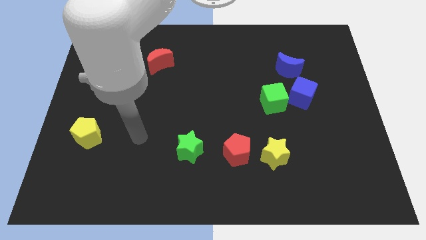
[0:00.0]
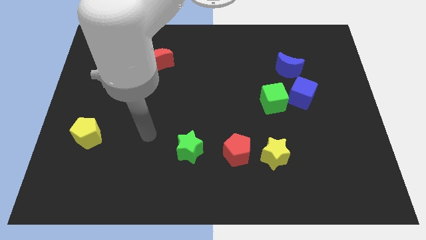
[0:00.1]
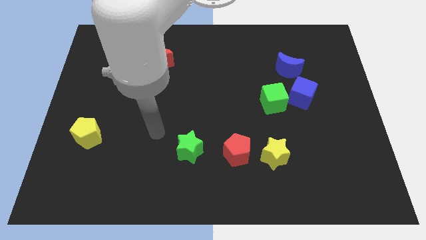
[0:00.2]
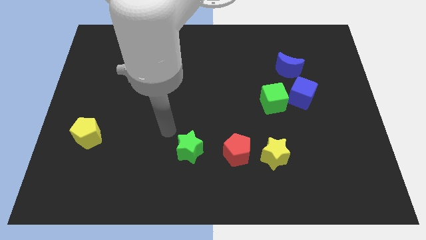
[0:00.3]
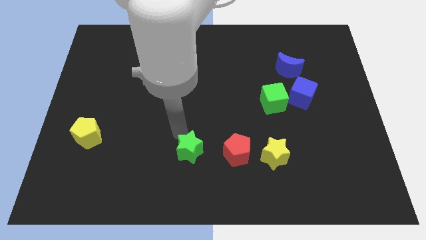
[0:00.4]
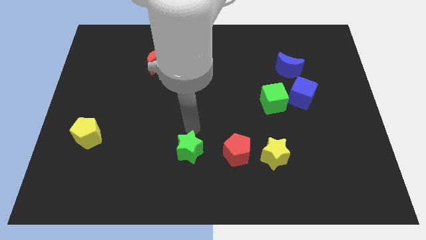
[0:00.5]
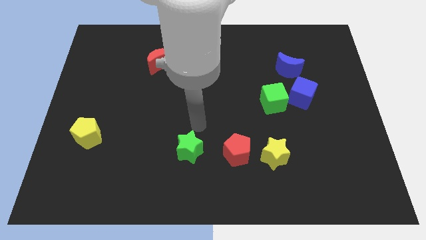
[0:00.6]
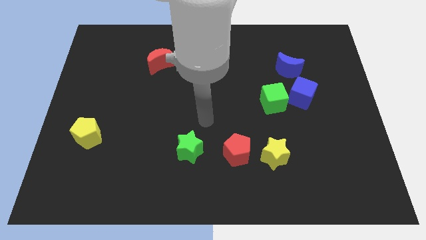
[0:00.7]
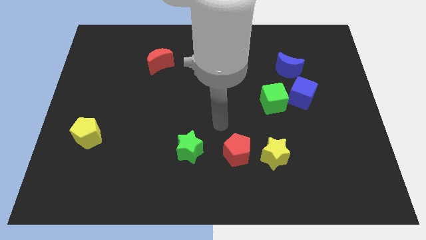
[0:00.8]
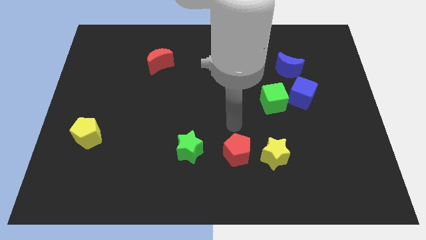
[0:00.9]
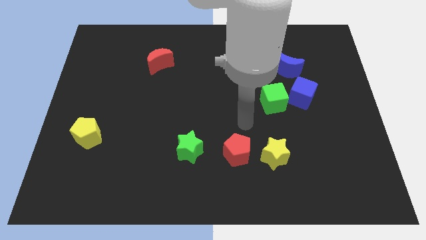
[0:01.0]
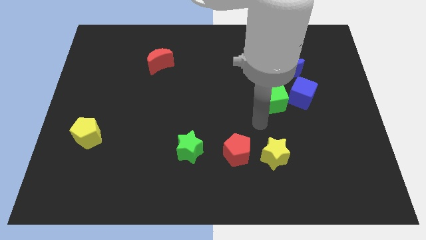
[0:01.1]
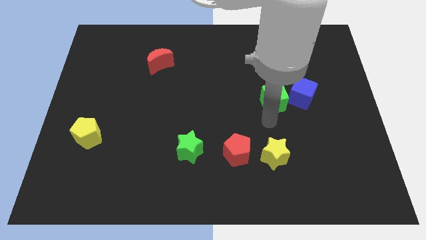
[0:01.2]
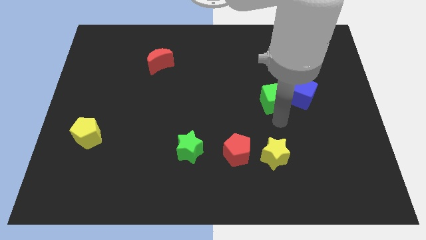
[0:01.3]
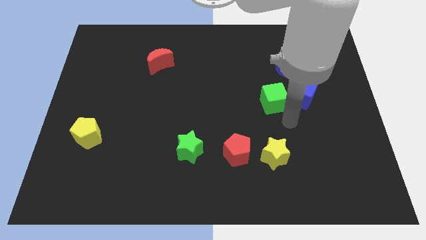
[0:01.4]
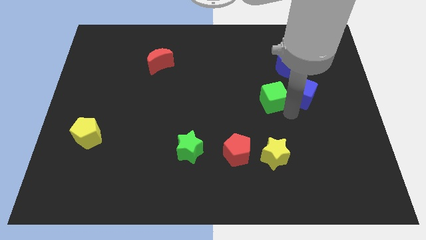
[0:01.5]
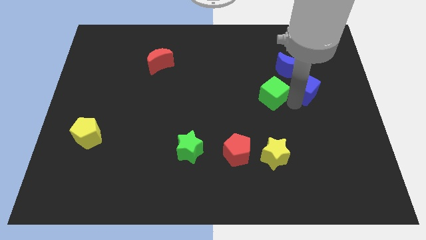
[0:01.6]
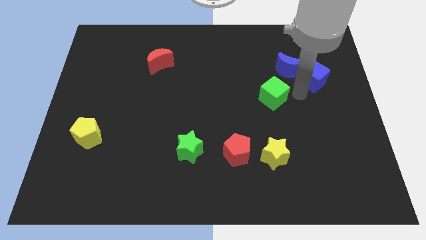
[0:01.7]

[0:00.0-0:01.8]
separate the green cube from the blue cube

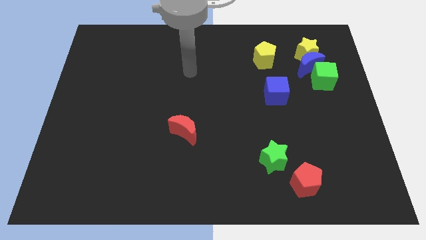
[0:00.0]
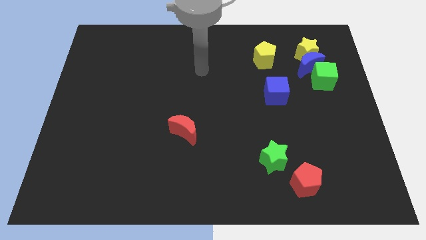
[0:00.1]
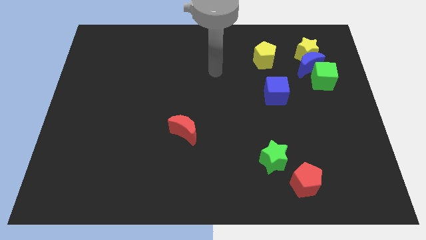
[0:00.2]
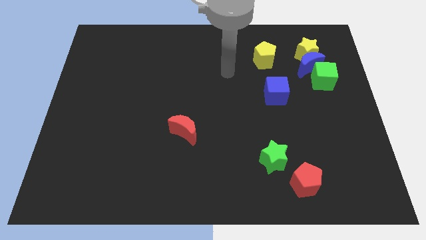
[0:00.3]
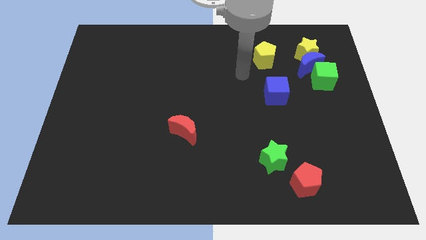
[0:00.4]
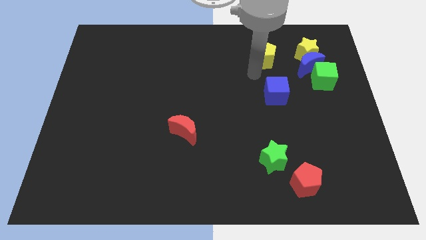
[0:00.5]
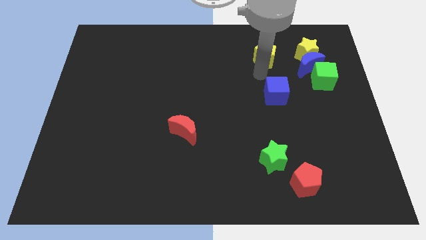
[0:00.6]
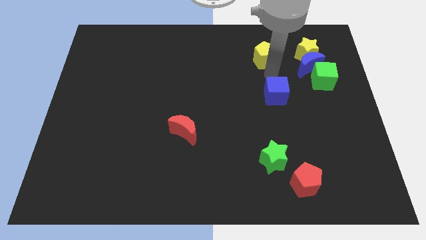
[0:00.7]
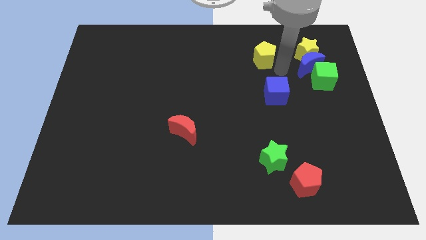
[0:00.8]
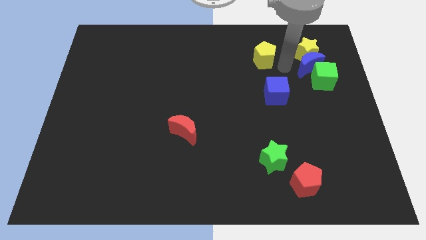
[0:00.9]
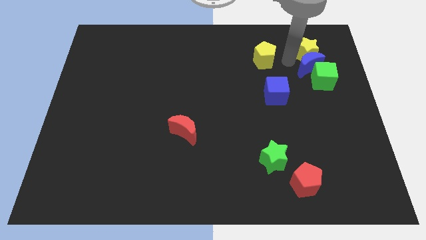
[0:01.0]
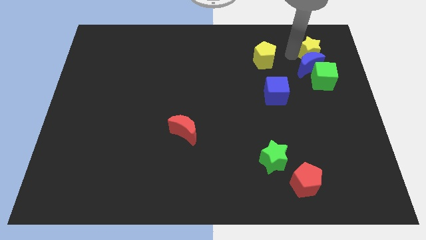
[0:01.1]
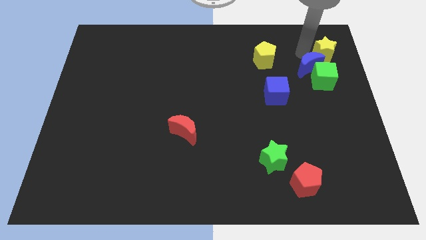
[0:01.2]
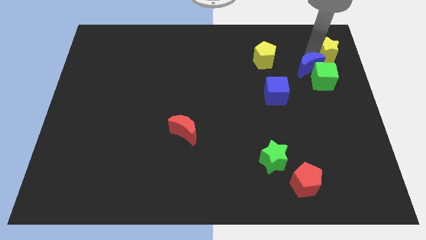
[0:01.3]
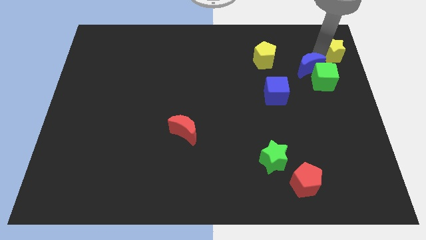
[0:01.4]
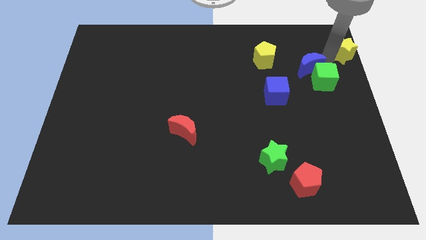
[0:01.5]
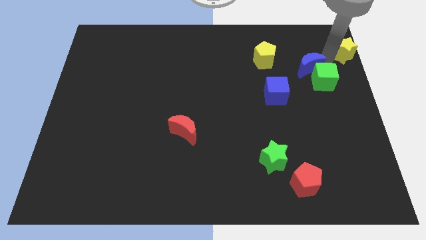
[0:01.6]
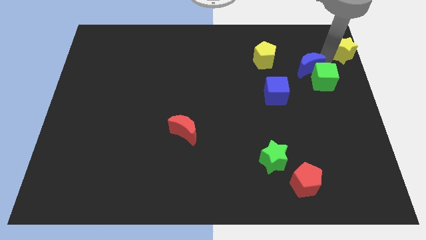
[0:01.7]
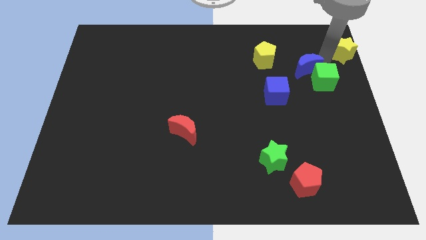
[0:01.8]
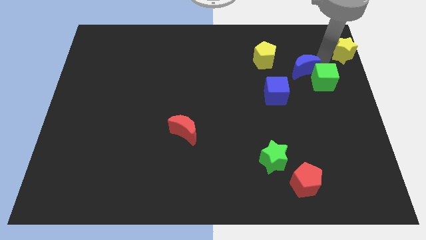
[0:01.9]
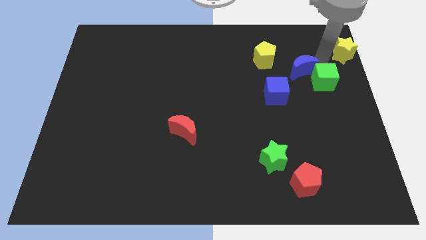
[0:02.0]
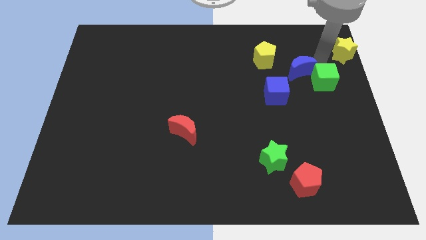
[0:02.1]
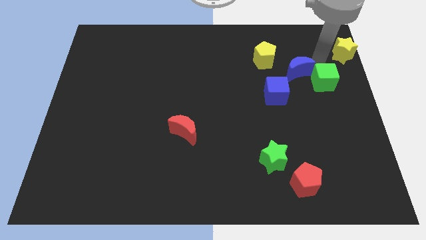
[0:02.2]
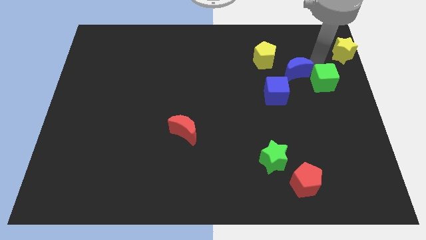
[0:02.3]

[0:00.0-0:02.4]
separate the blue moon from the yellow star and green cube

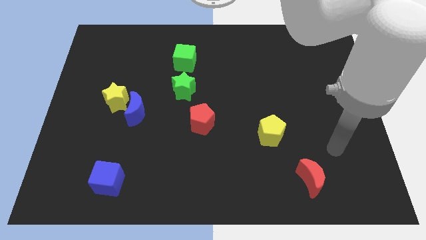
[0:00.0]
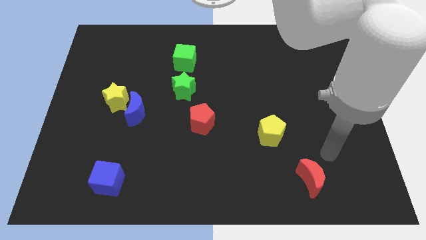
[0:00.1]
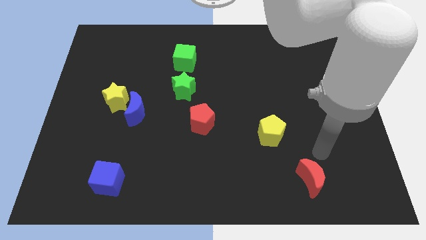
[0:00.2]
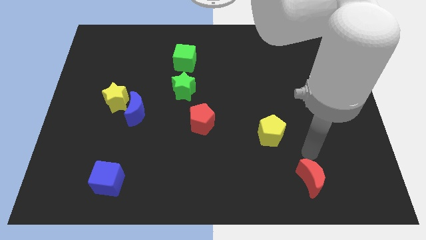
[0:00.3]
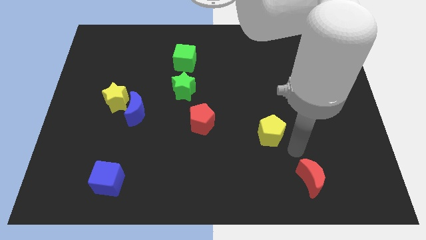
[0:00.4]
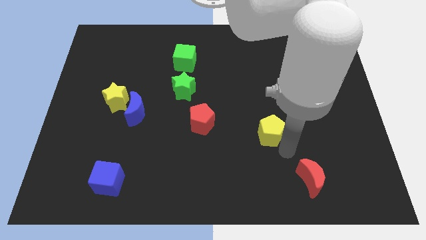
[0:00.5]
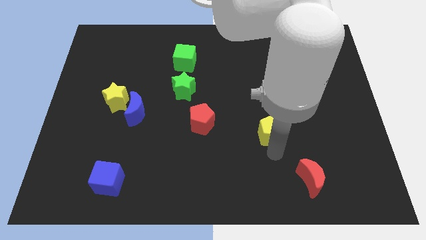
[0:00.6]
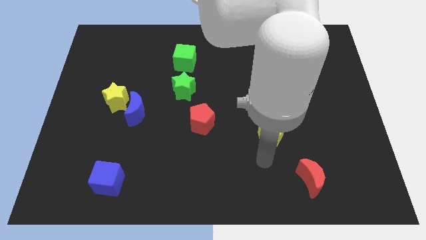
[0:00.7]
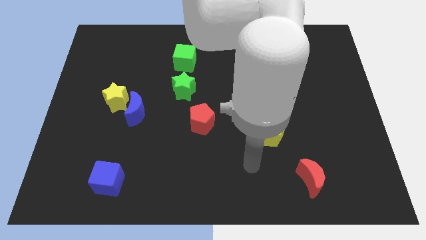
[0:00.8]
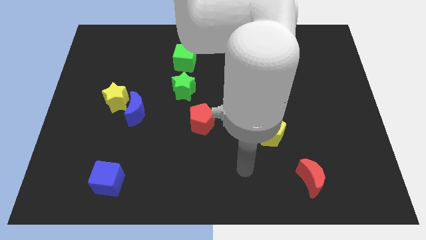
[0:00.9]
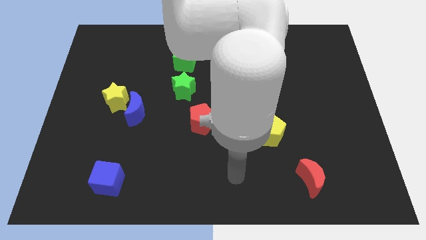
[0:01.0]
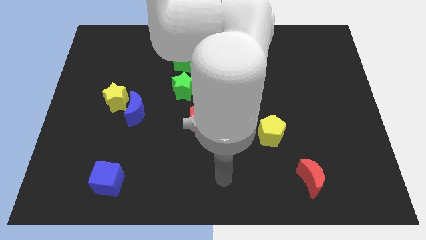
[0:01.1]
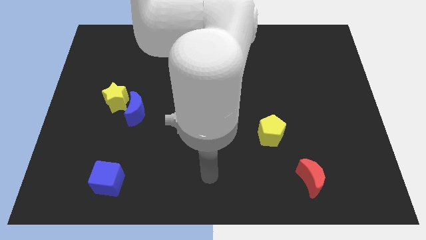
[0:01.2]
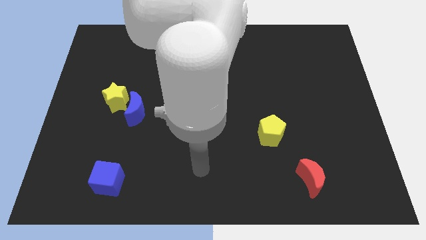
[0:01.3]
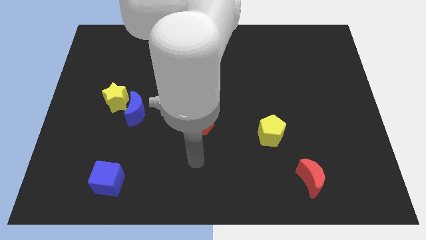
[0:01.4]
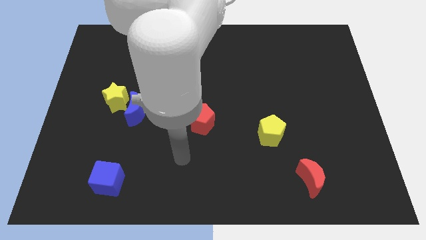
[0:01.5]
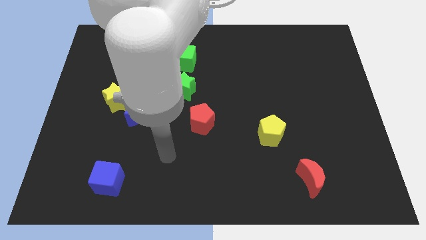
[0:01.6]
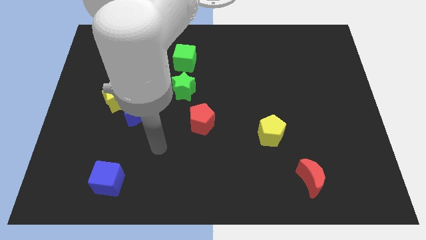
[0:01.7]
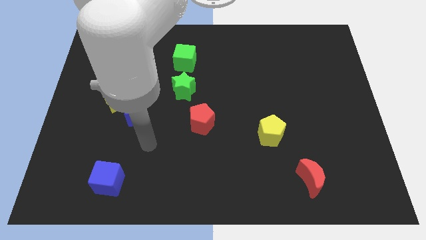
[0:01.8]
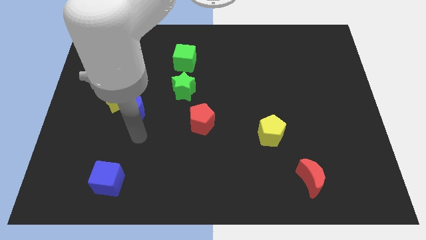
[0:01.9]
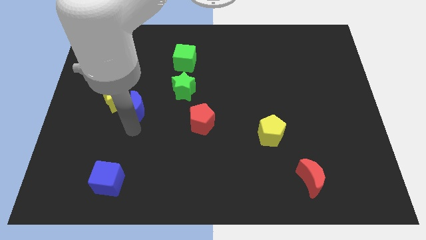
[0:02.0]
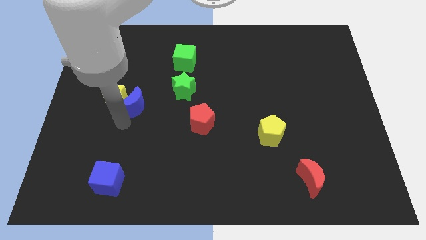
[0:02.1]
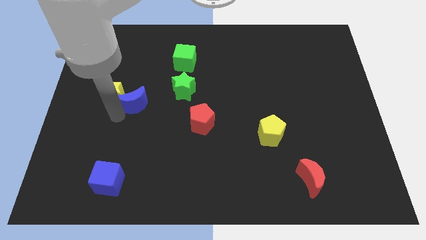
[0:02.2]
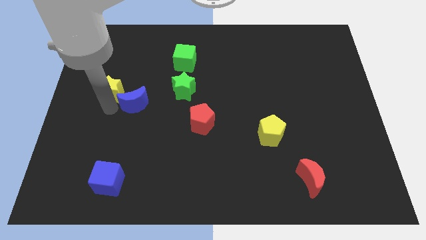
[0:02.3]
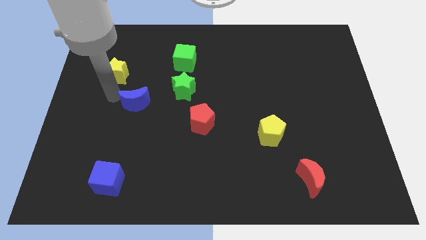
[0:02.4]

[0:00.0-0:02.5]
separate the blue moon from the yellow star

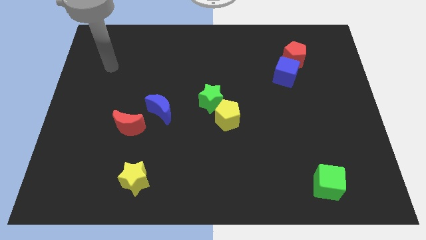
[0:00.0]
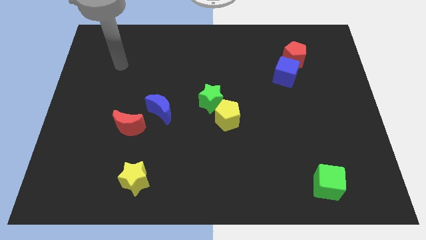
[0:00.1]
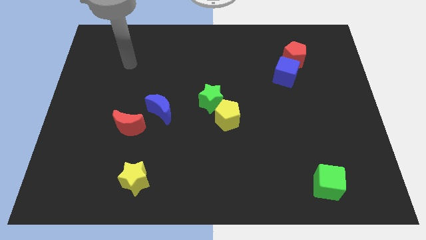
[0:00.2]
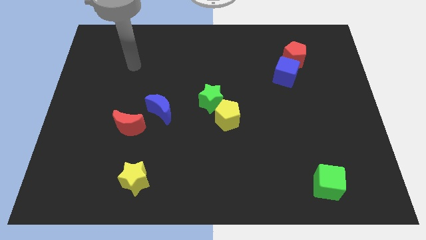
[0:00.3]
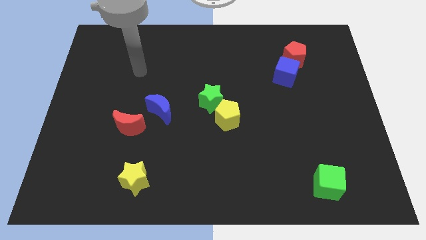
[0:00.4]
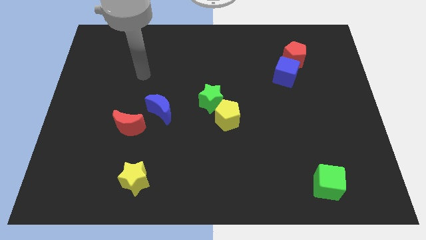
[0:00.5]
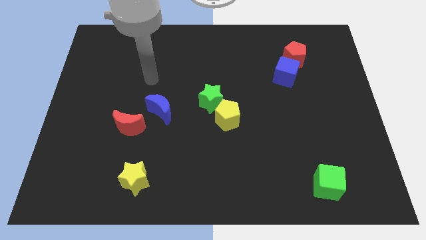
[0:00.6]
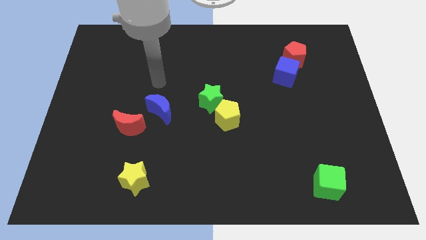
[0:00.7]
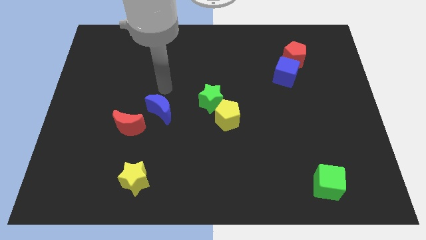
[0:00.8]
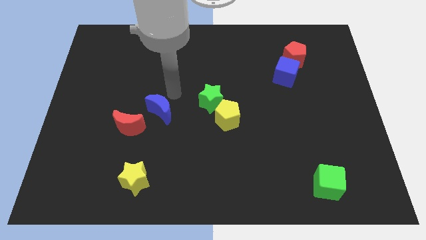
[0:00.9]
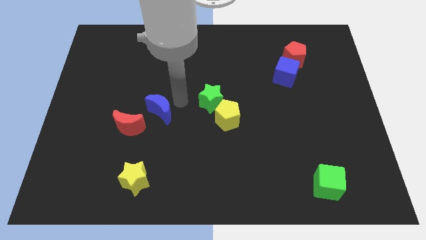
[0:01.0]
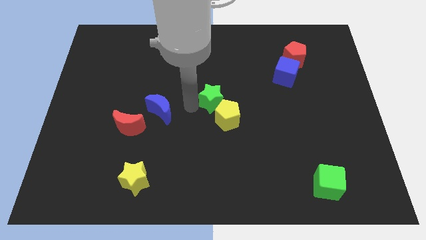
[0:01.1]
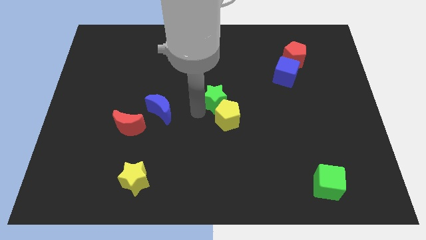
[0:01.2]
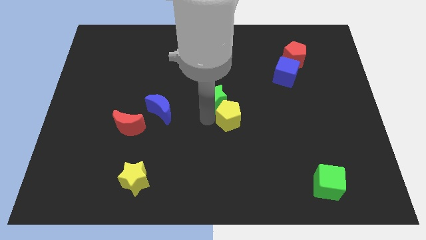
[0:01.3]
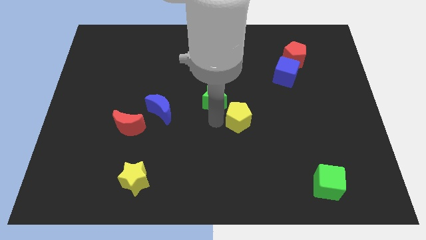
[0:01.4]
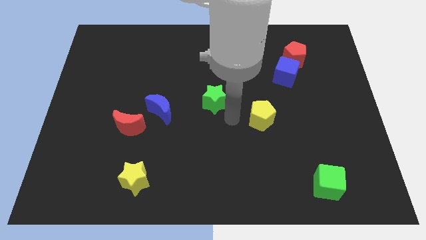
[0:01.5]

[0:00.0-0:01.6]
pull the green star apart from the yellow pentagon

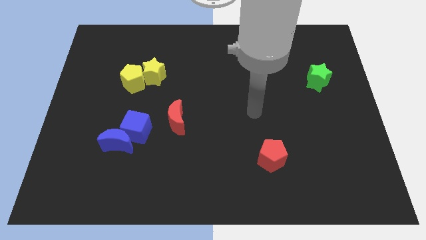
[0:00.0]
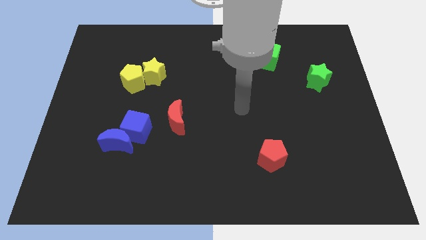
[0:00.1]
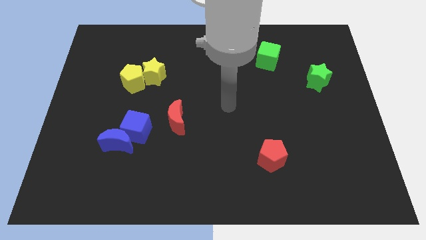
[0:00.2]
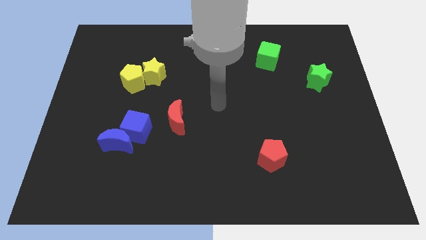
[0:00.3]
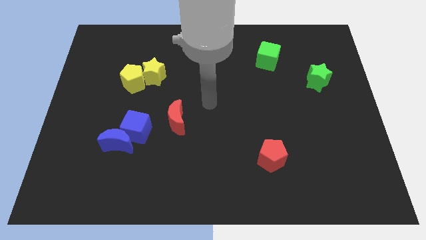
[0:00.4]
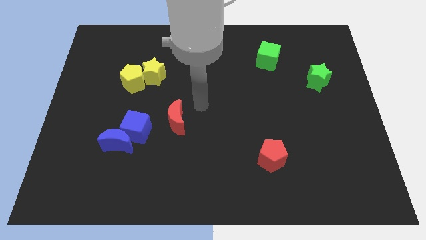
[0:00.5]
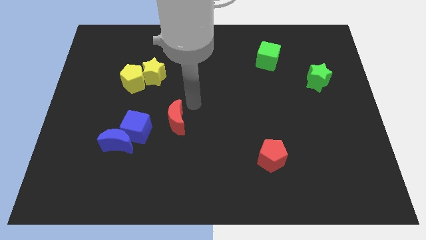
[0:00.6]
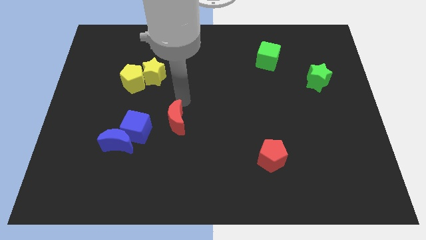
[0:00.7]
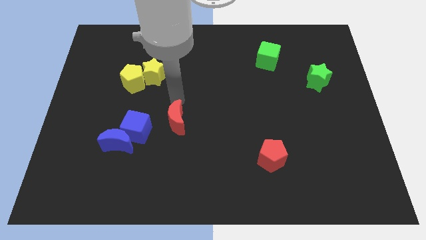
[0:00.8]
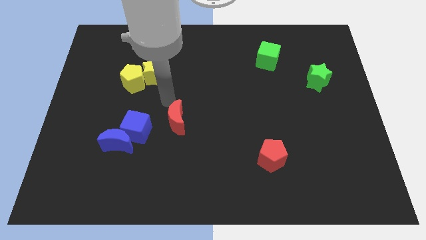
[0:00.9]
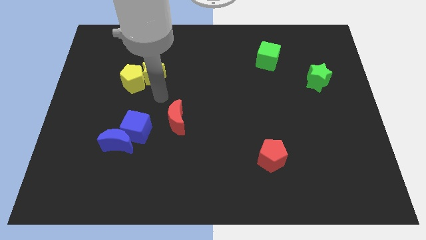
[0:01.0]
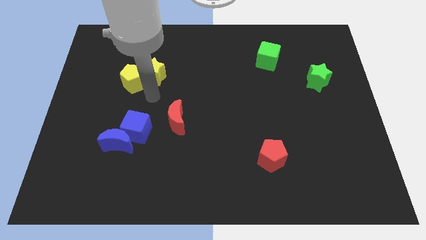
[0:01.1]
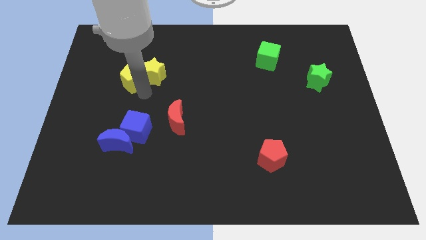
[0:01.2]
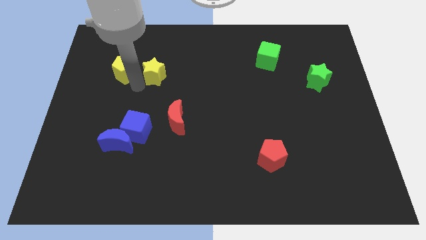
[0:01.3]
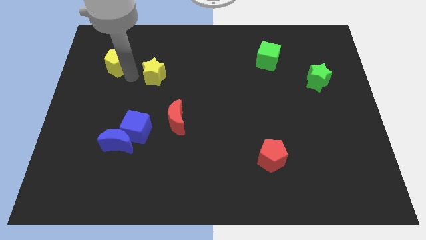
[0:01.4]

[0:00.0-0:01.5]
pull the yellow star apart from the yellow pentagon
